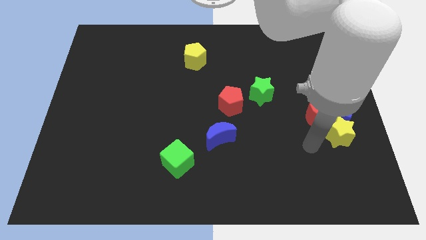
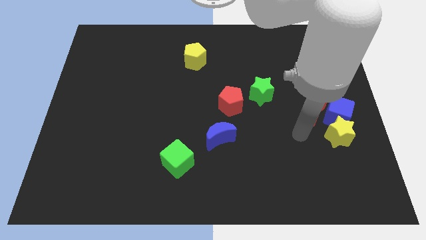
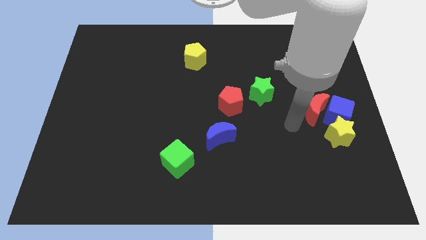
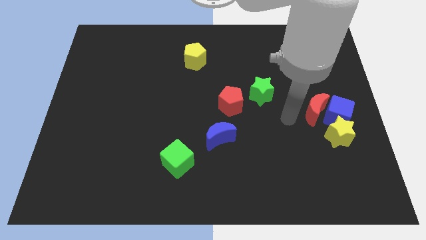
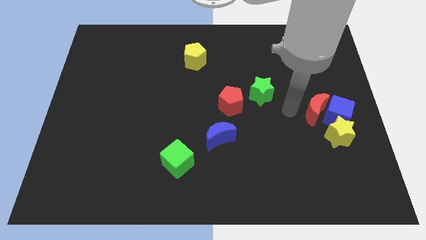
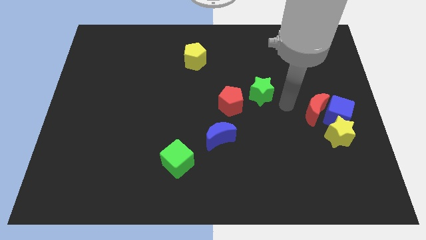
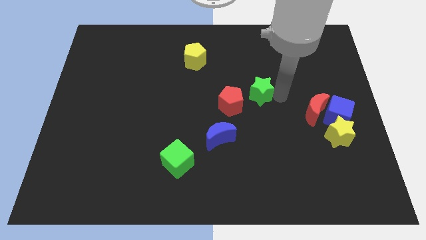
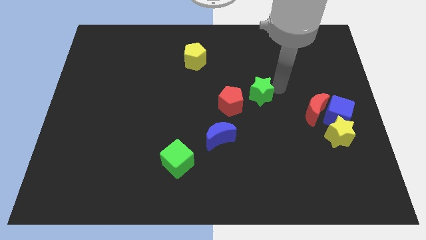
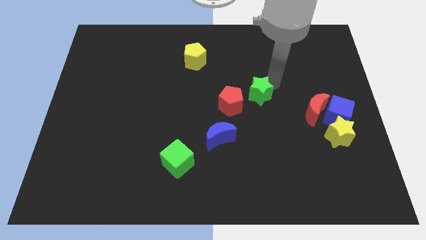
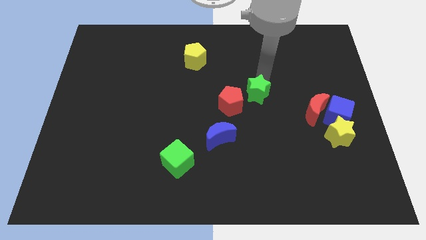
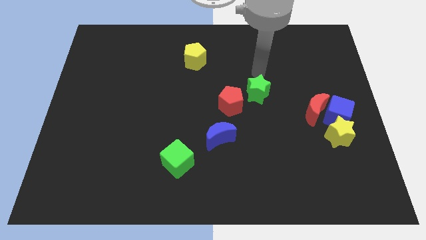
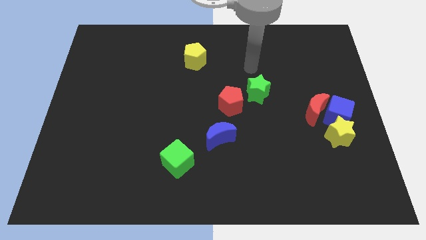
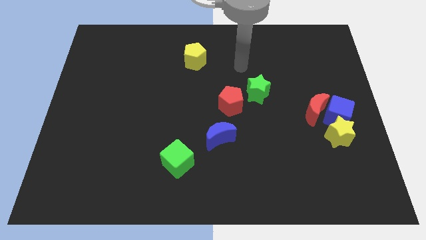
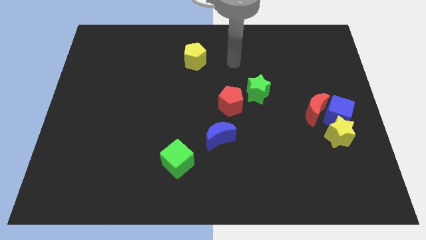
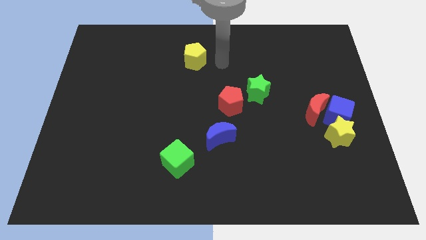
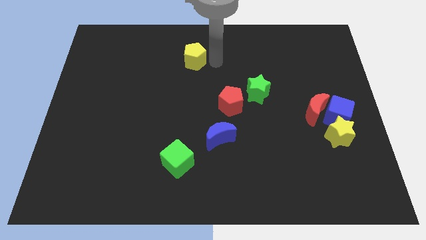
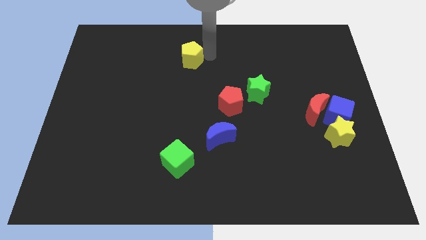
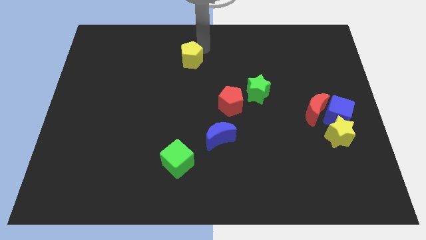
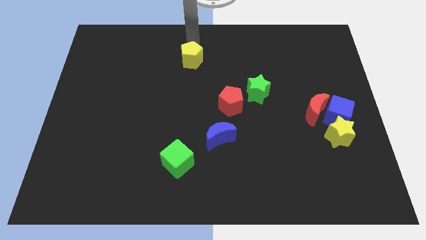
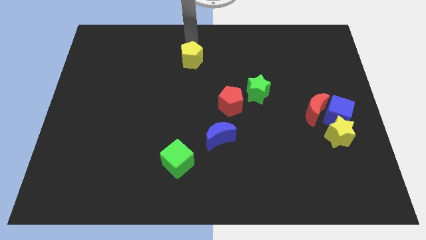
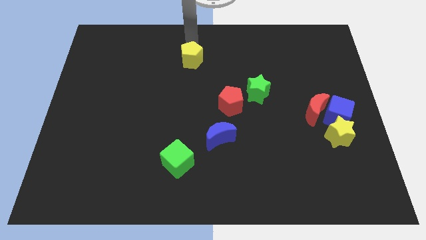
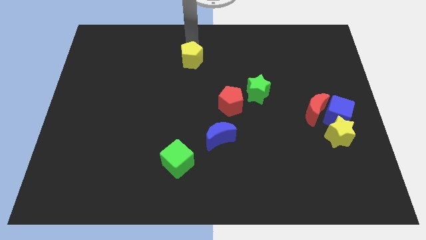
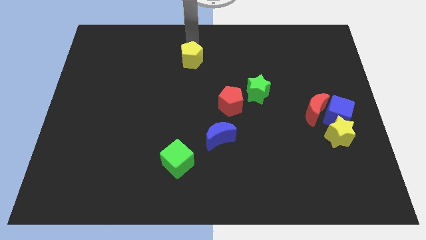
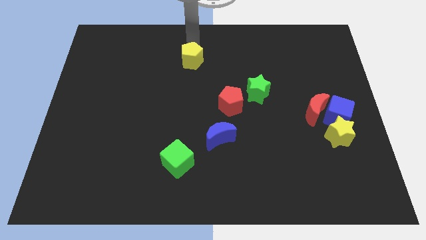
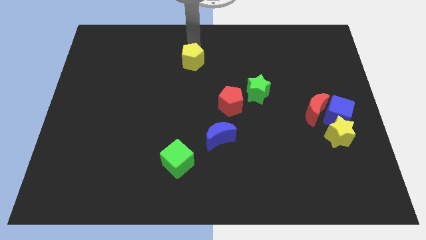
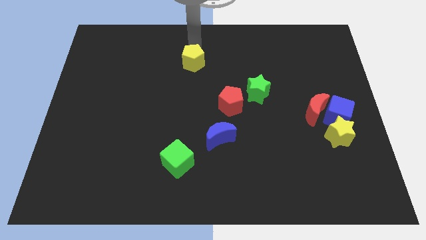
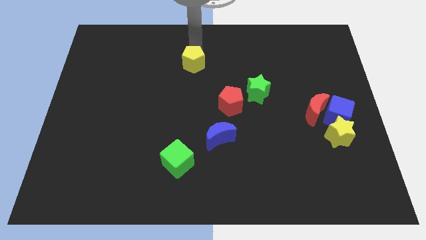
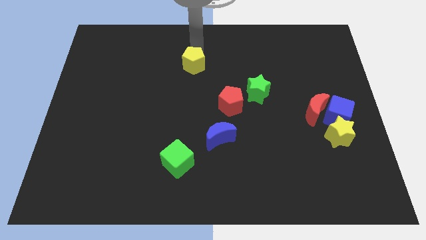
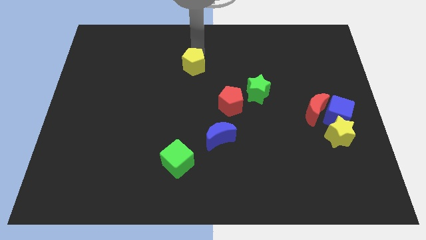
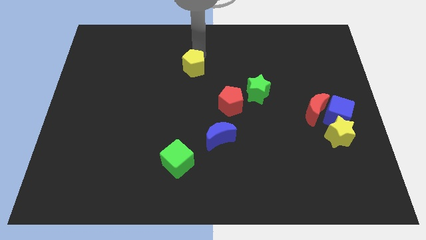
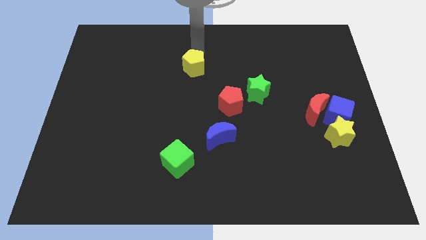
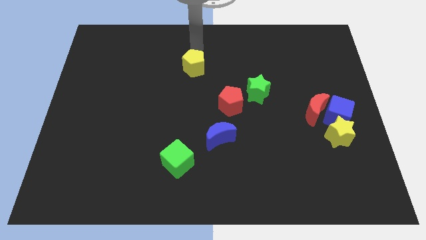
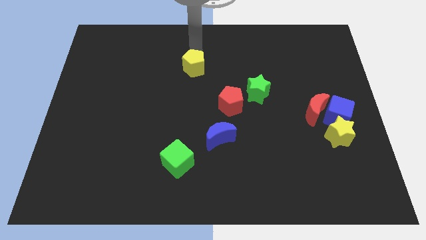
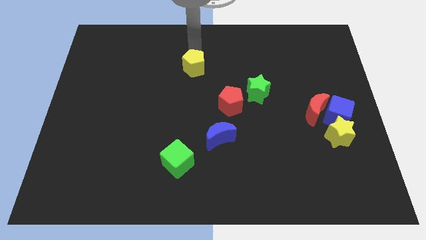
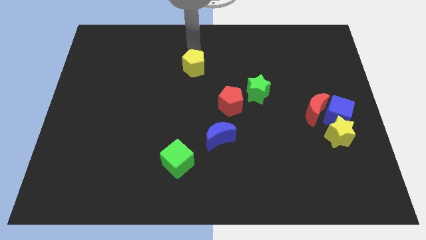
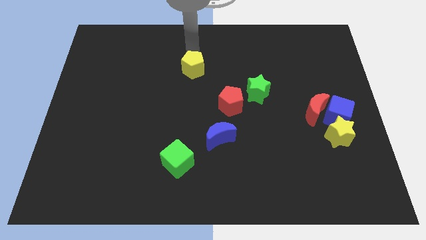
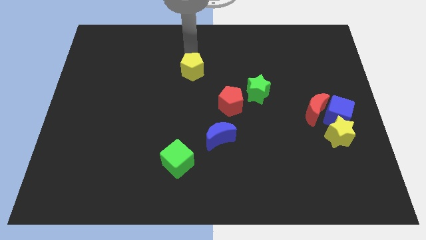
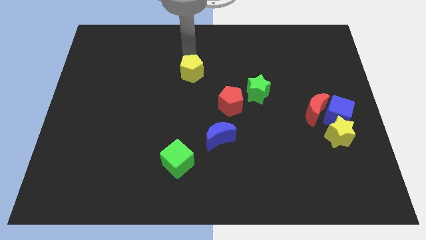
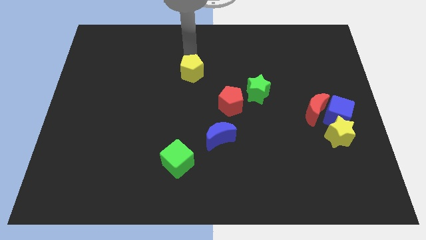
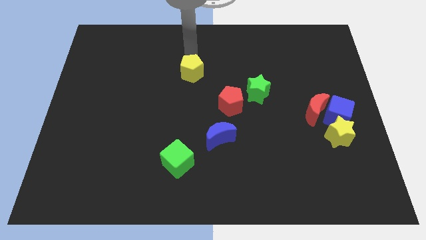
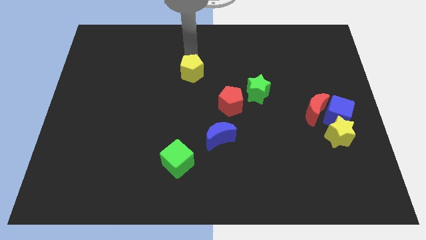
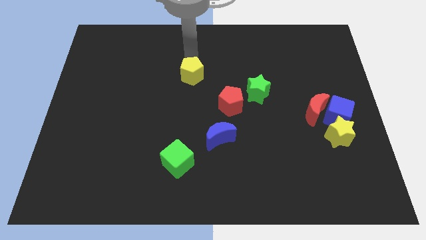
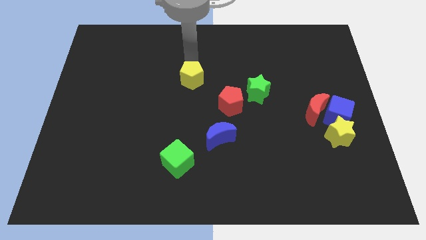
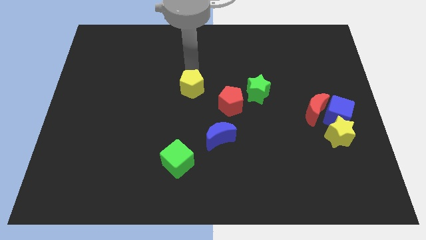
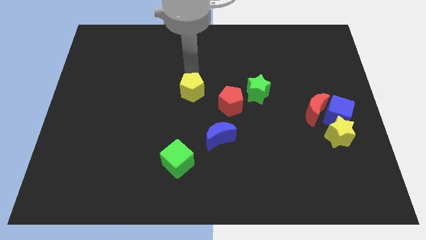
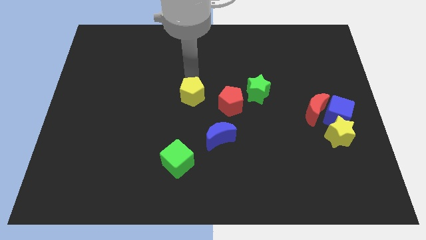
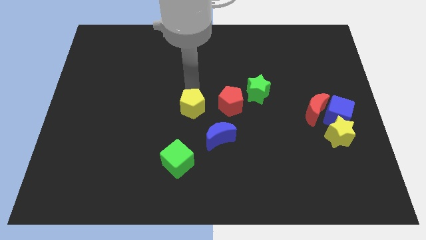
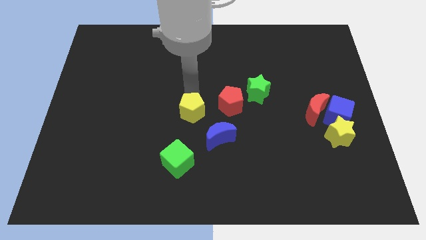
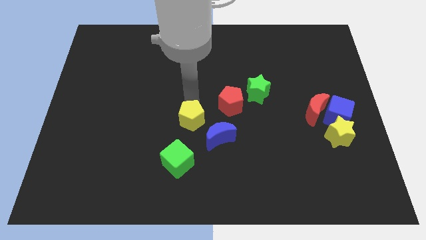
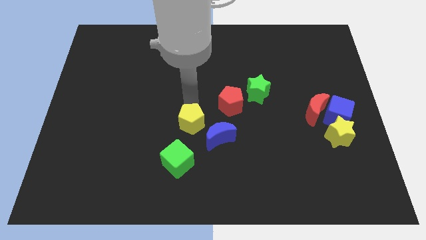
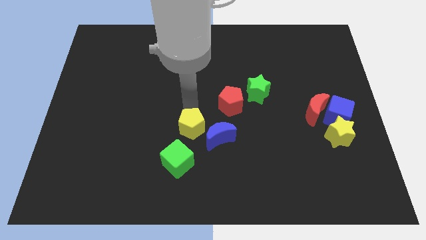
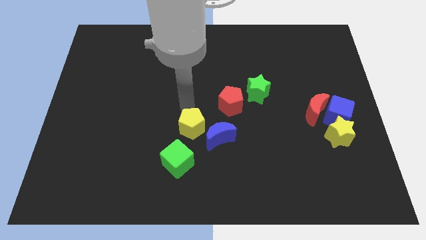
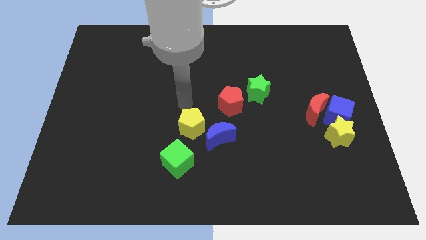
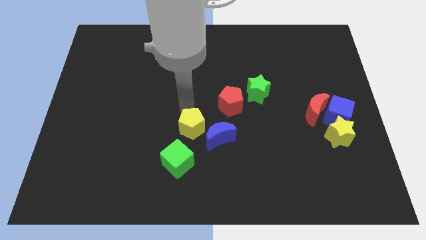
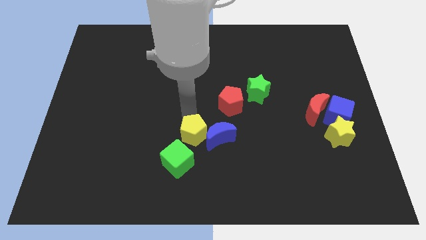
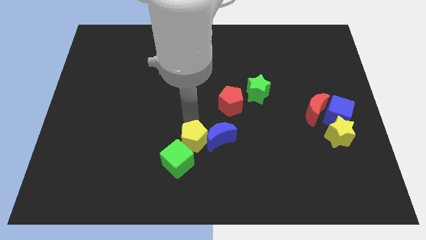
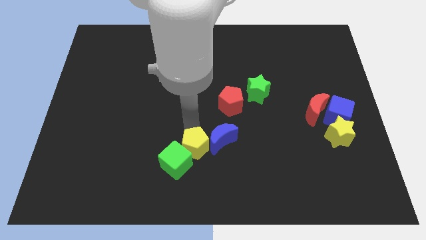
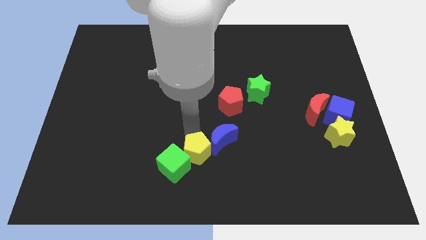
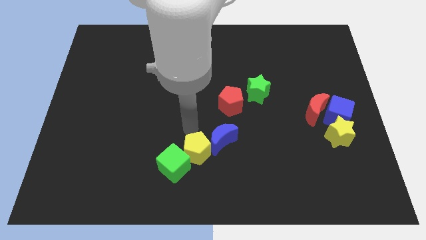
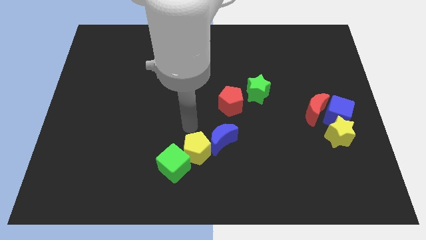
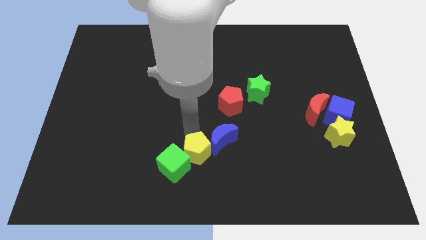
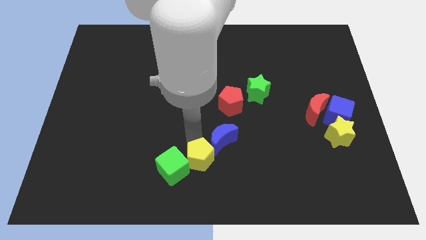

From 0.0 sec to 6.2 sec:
move the yellow pentagon to the bottom
